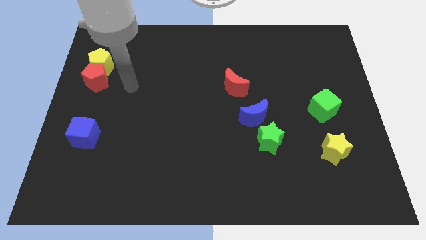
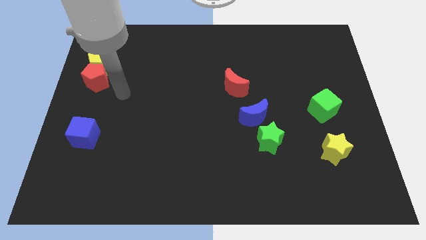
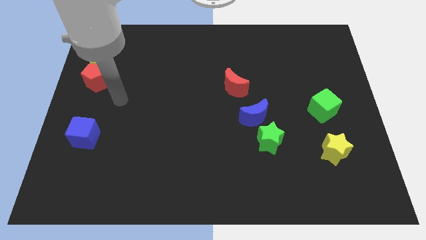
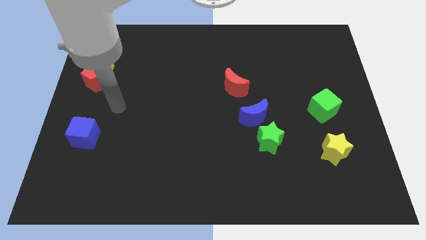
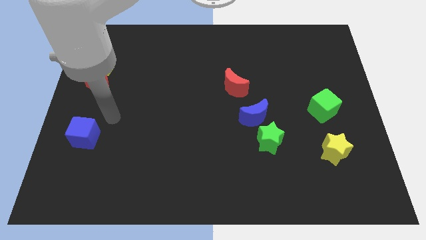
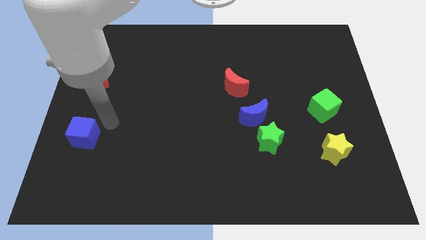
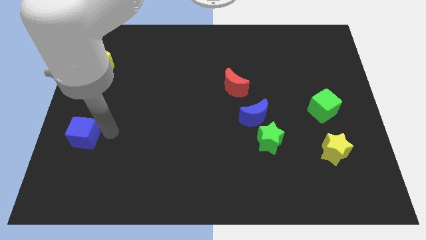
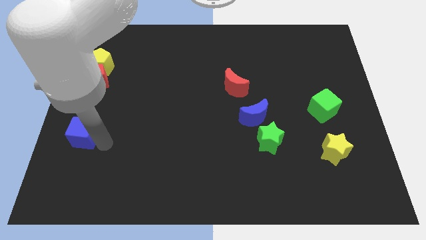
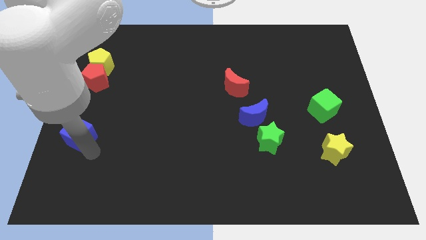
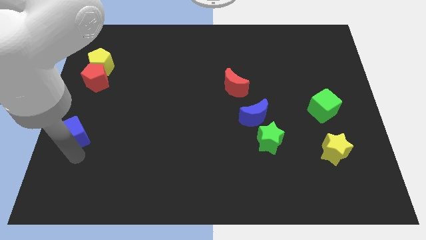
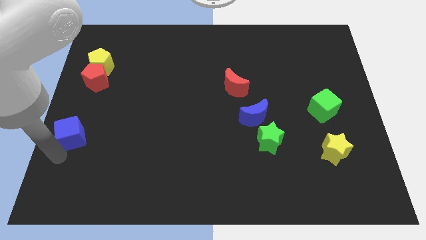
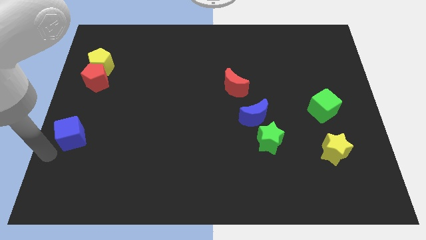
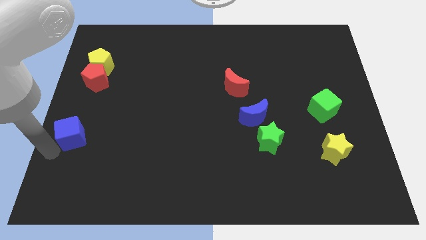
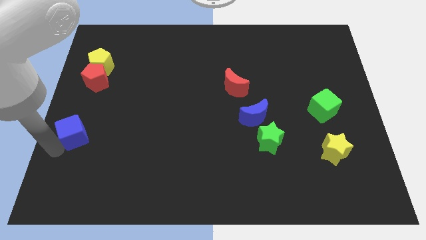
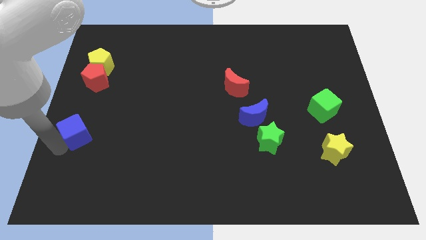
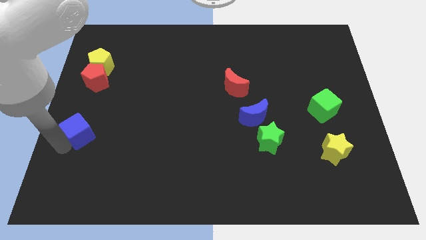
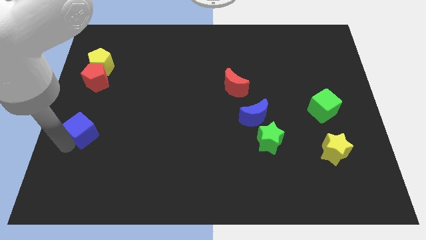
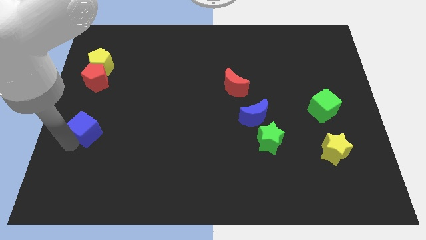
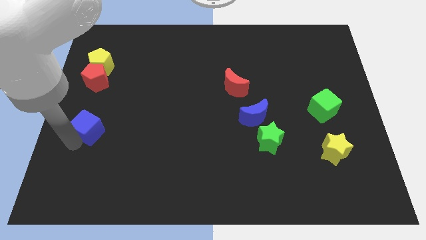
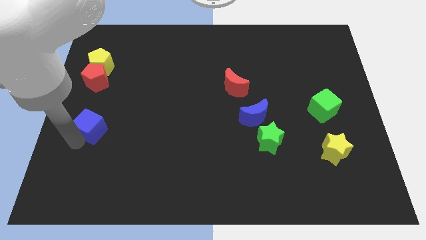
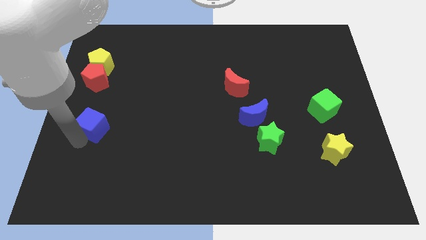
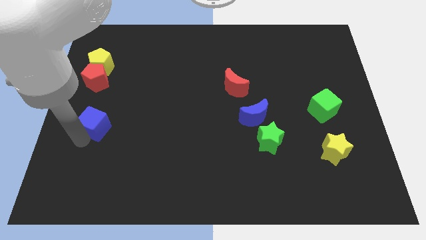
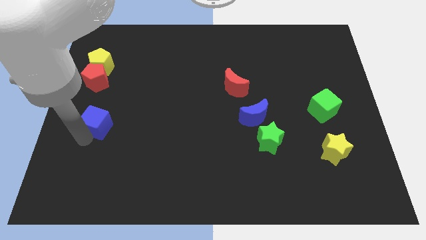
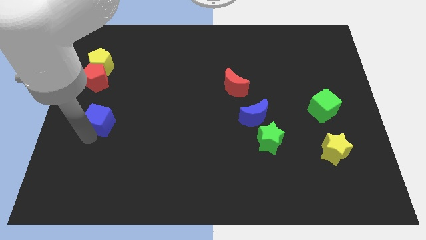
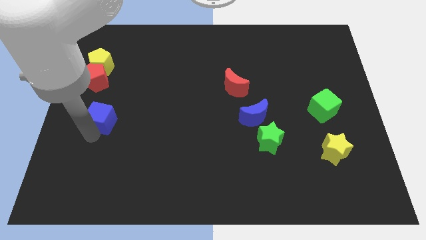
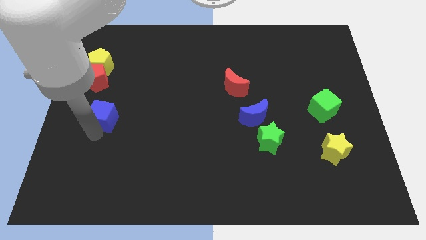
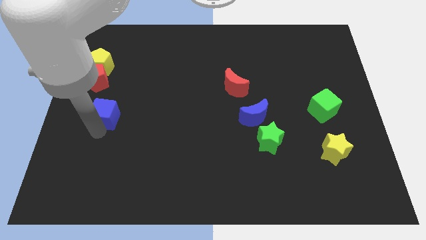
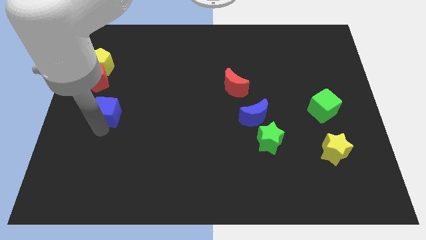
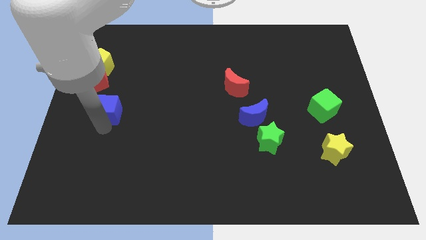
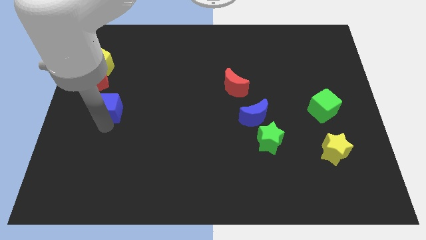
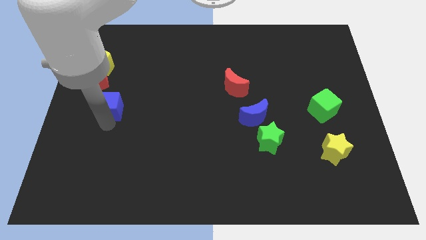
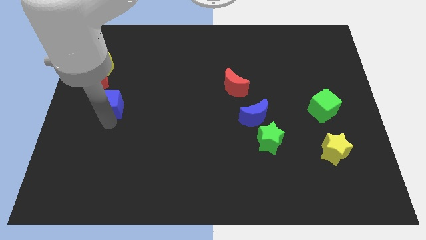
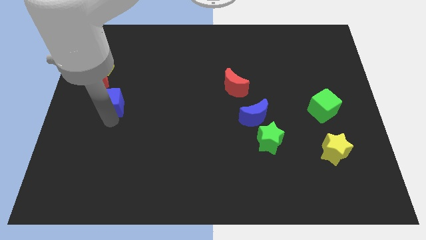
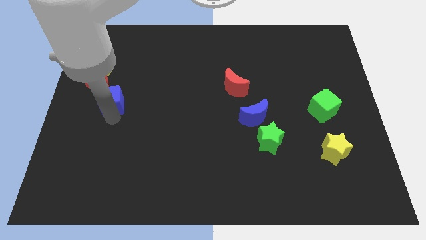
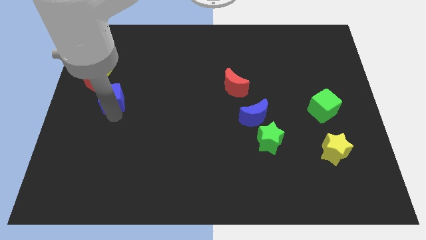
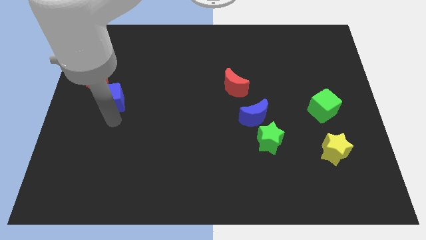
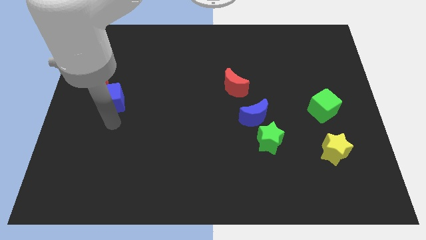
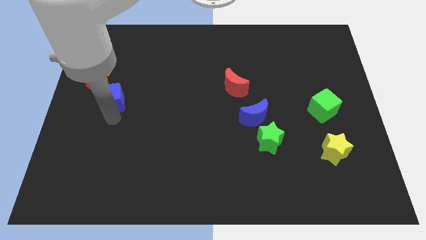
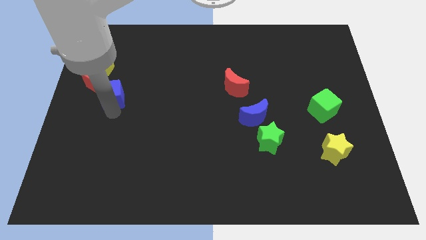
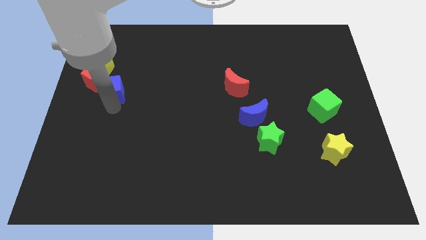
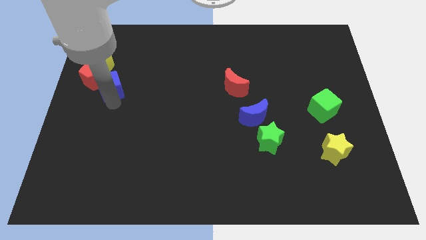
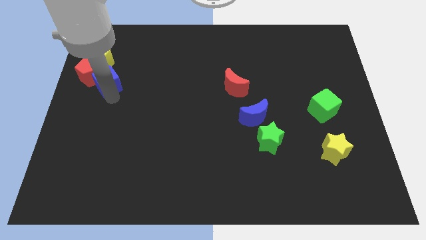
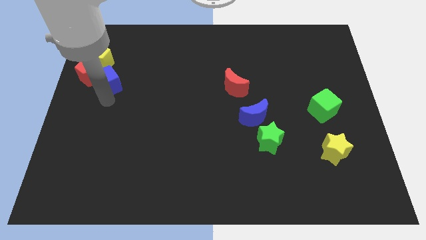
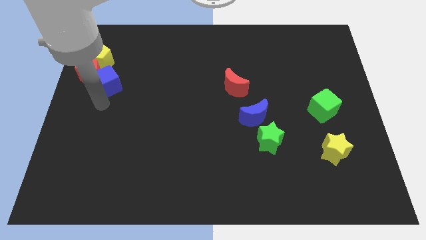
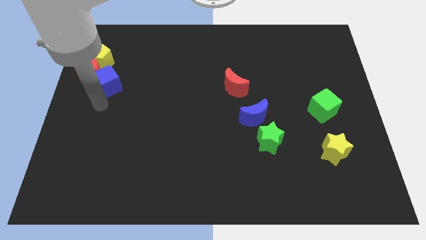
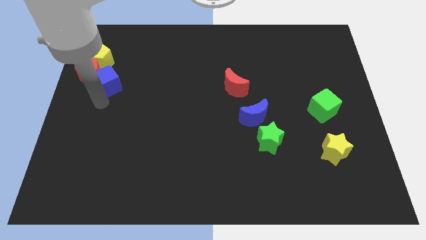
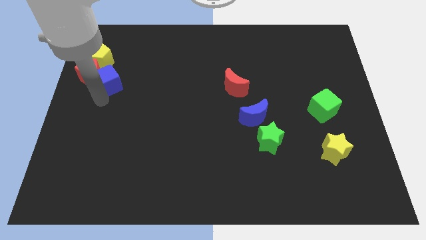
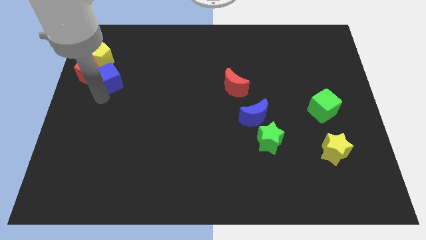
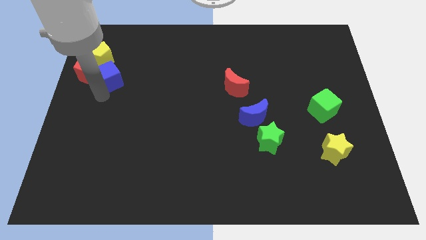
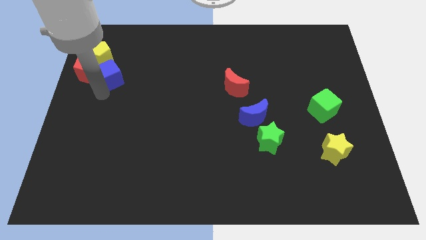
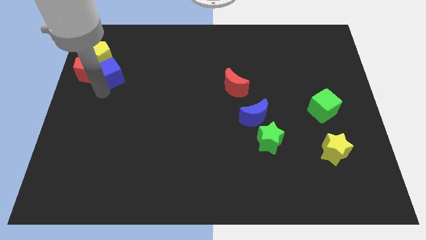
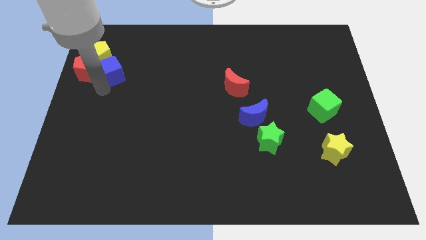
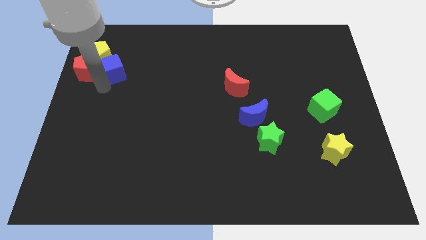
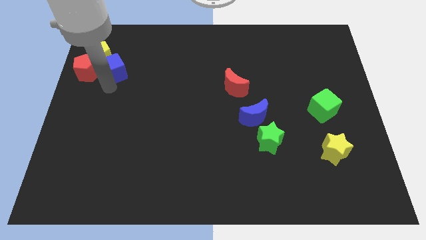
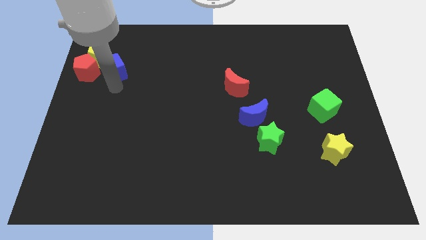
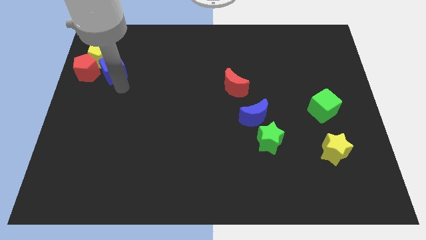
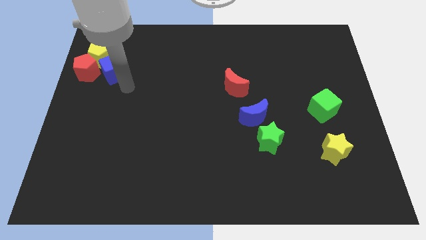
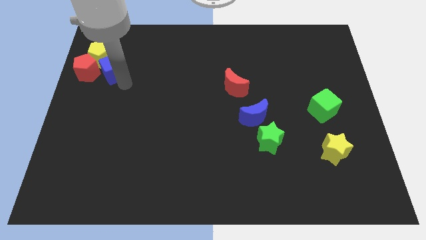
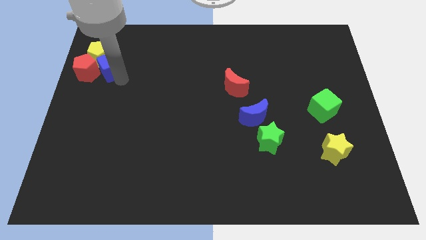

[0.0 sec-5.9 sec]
slide the blue cube towards the yellow pentagon

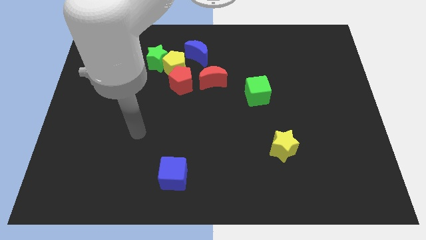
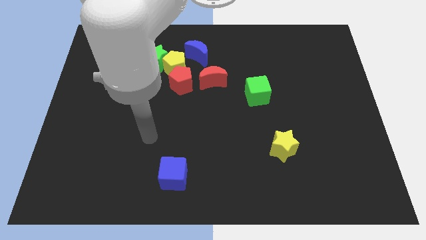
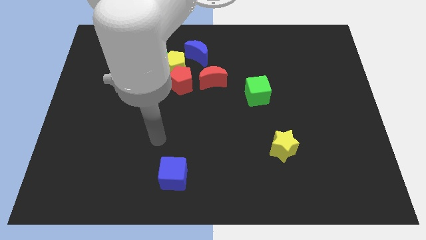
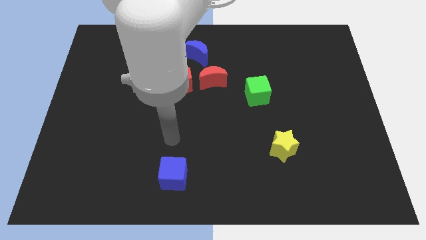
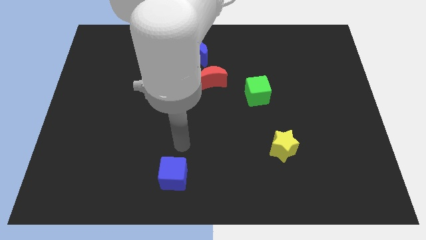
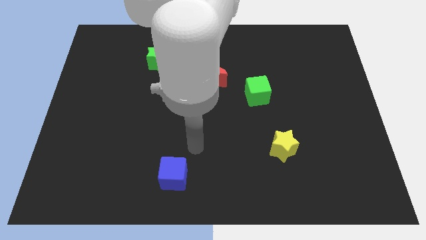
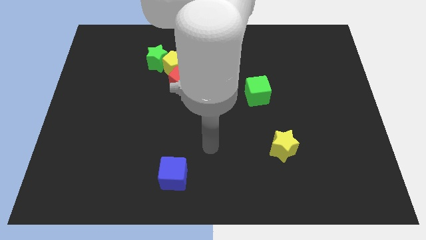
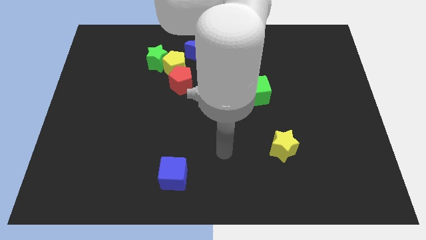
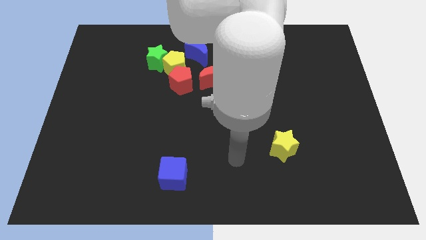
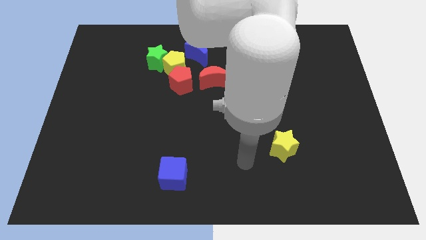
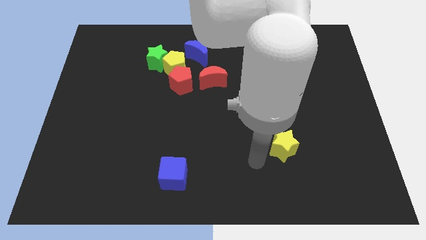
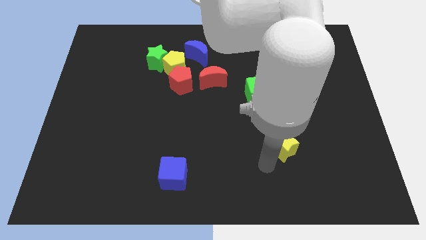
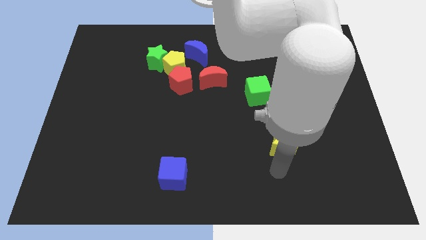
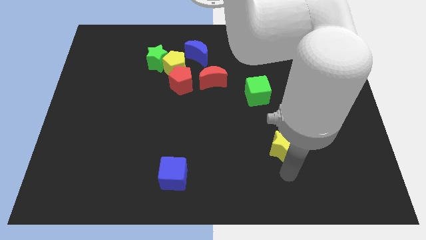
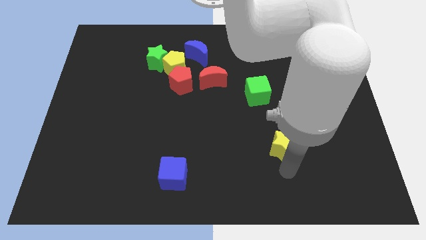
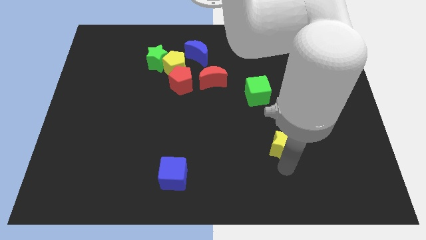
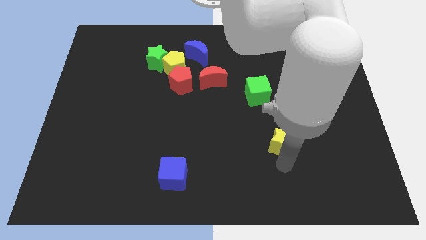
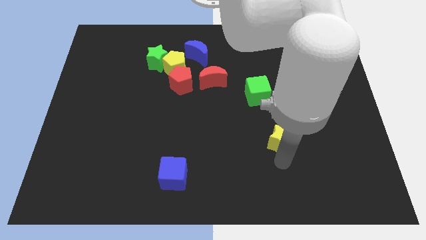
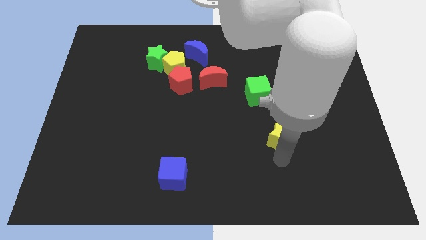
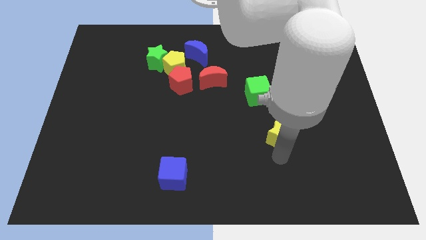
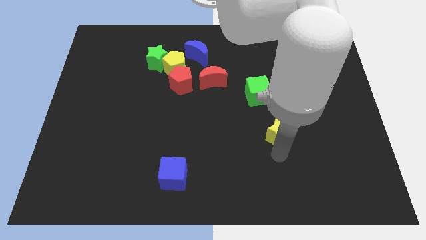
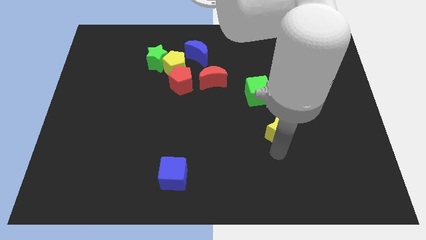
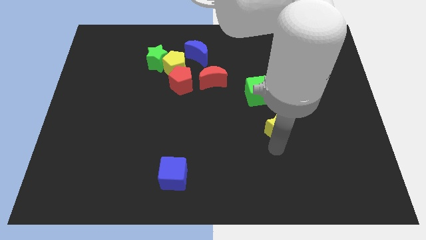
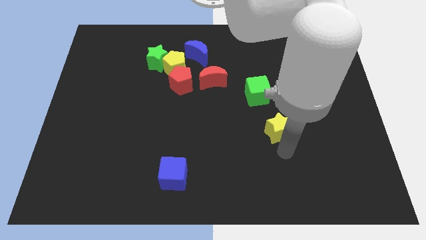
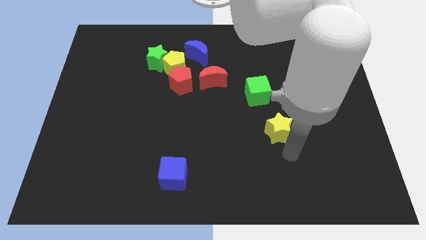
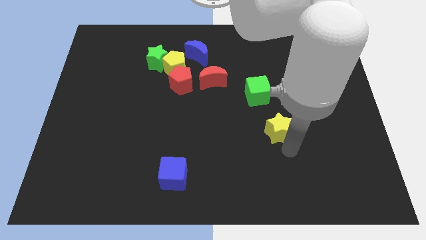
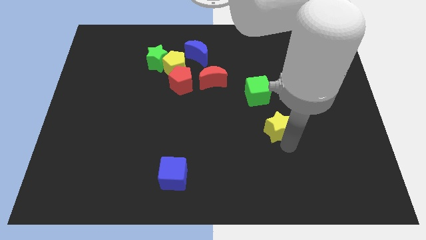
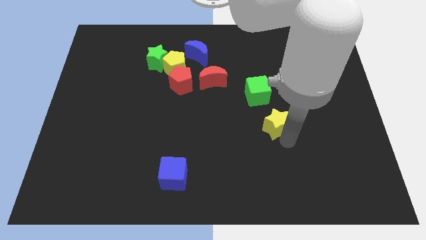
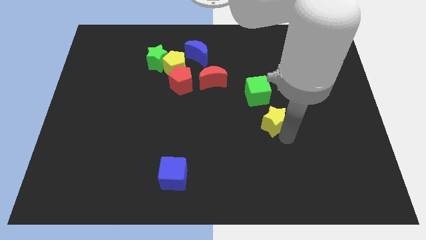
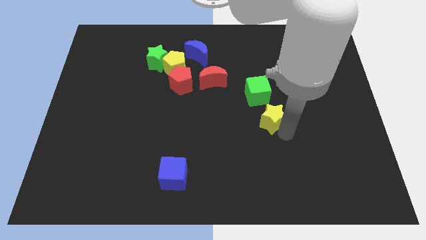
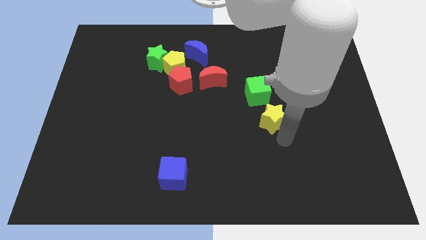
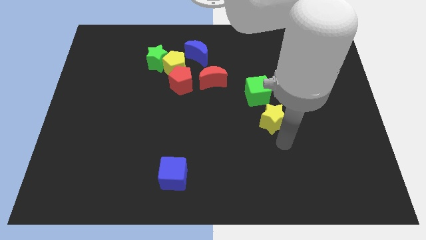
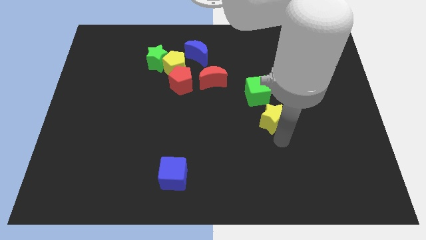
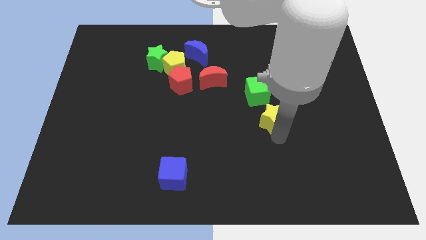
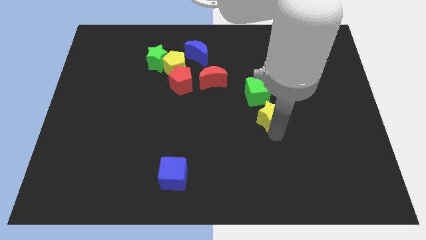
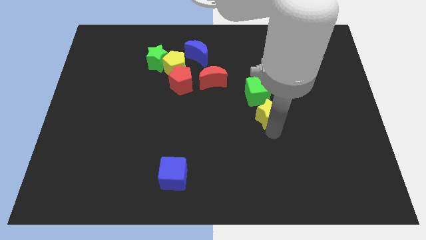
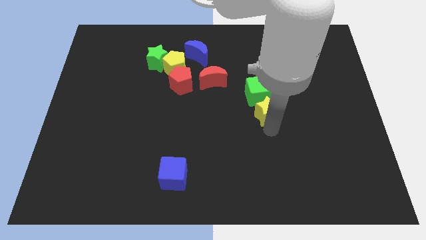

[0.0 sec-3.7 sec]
move the yellow star to the green cube
